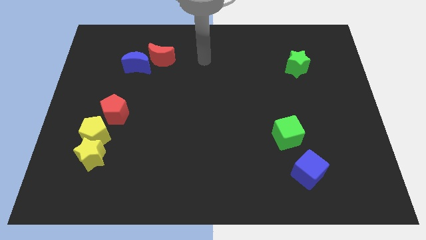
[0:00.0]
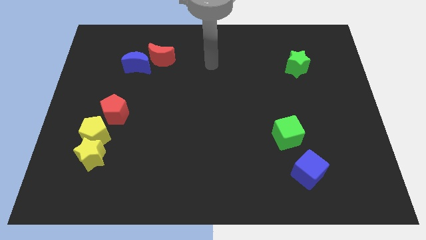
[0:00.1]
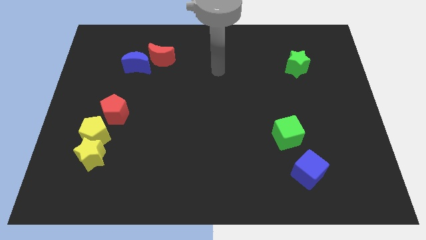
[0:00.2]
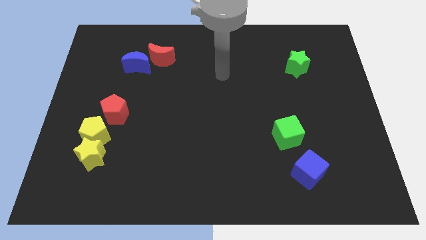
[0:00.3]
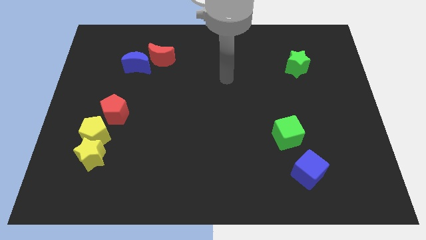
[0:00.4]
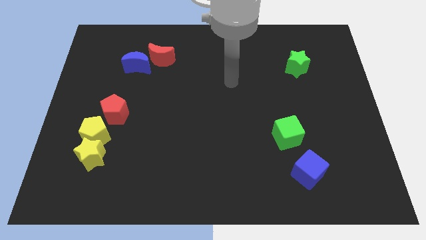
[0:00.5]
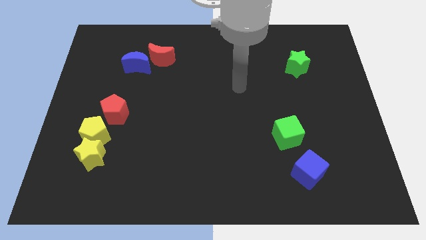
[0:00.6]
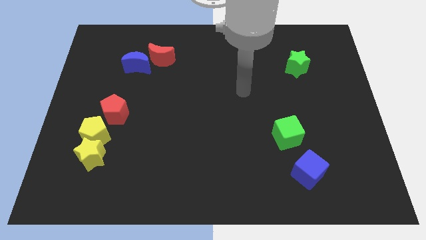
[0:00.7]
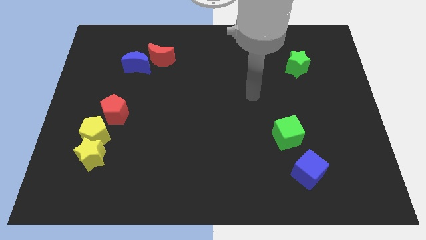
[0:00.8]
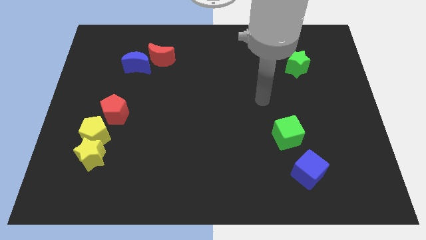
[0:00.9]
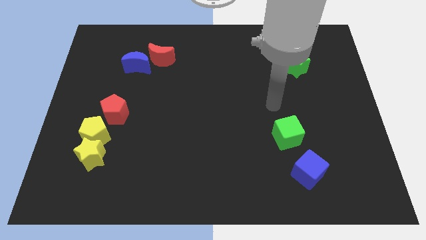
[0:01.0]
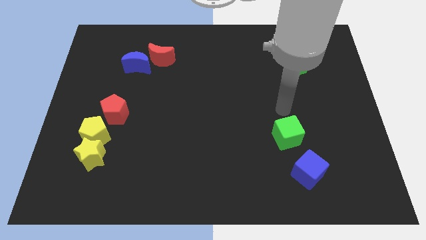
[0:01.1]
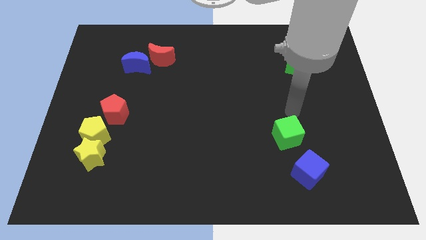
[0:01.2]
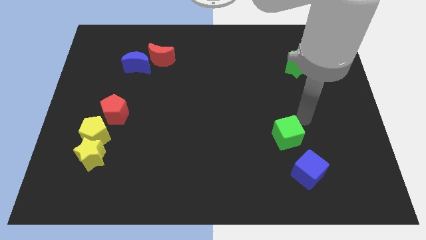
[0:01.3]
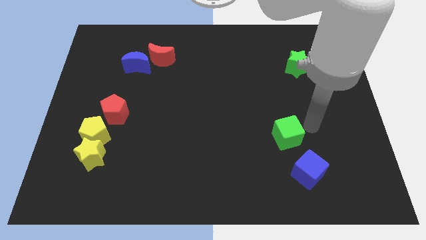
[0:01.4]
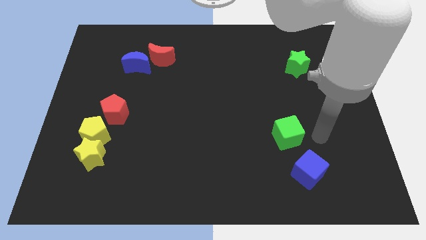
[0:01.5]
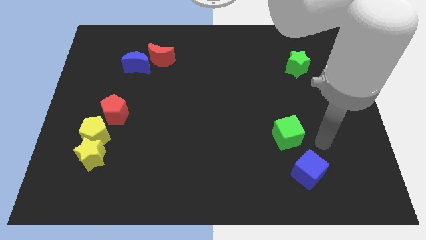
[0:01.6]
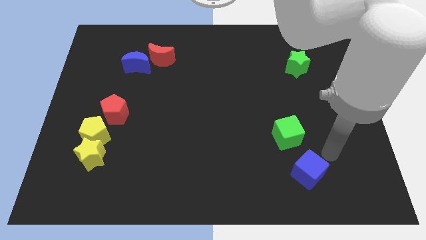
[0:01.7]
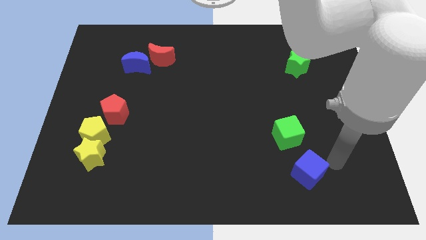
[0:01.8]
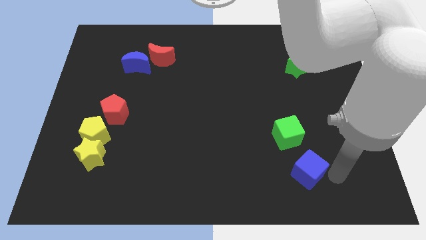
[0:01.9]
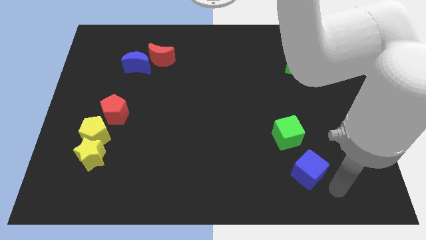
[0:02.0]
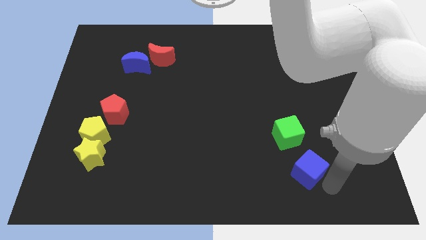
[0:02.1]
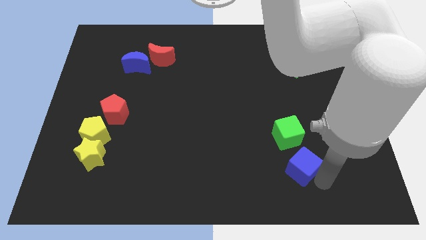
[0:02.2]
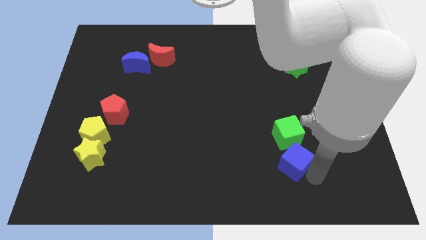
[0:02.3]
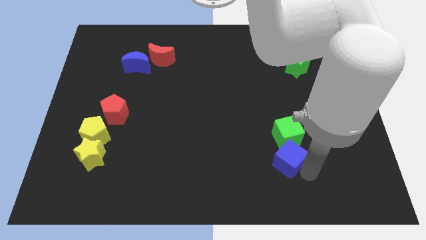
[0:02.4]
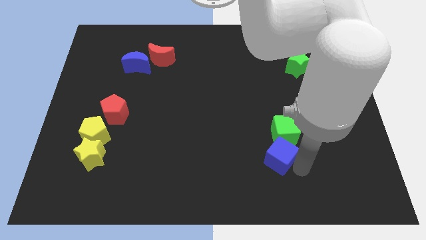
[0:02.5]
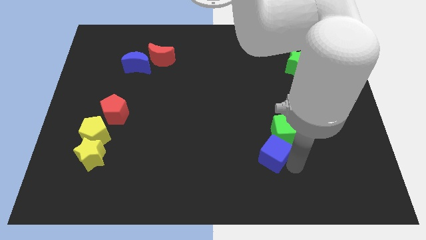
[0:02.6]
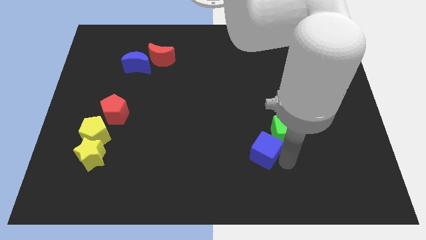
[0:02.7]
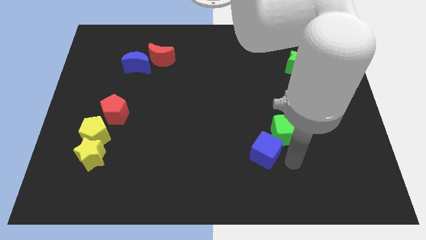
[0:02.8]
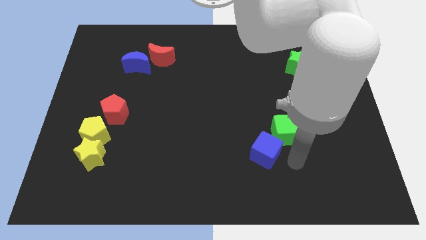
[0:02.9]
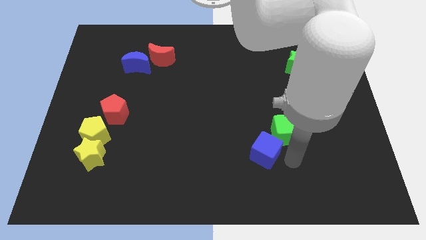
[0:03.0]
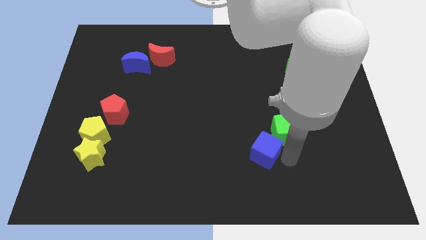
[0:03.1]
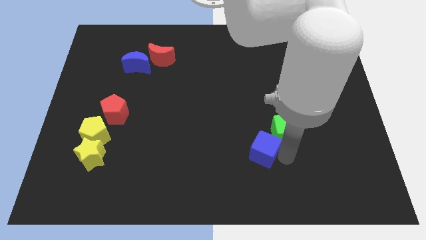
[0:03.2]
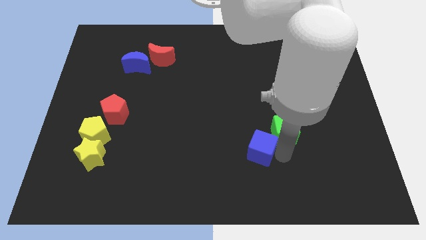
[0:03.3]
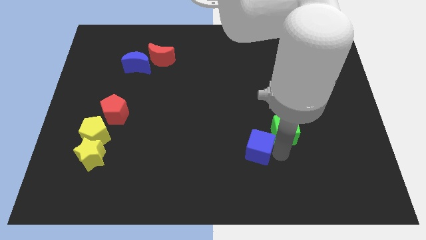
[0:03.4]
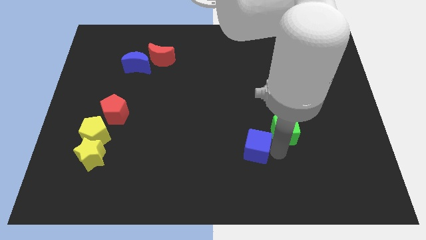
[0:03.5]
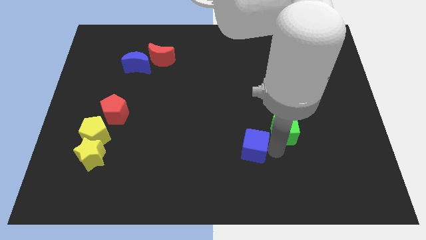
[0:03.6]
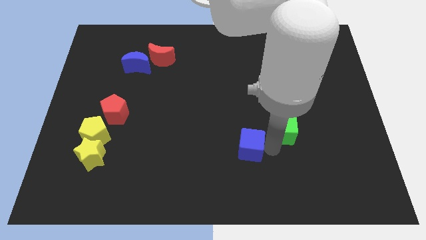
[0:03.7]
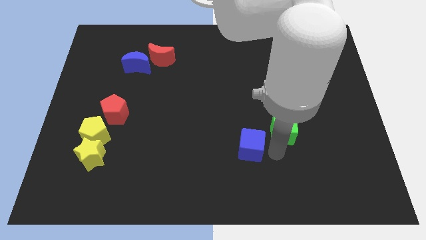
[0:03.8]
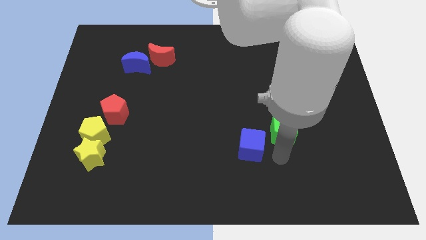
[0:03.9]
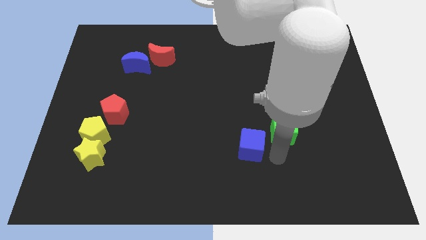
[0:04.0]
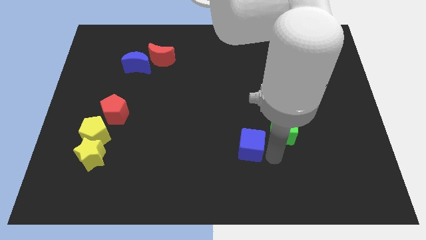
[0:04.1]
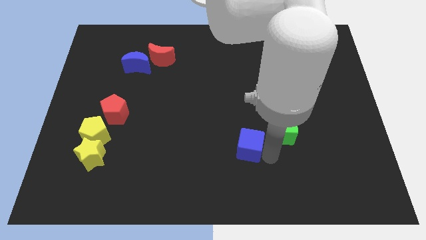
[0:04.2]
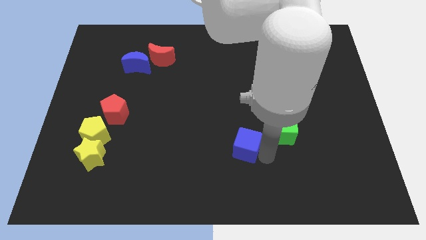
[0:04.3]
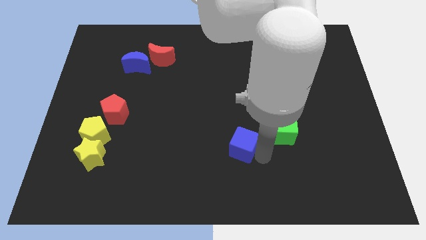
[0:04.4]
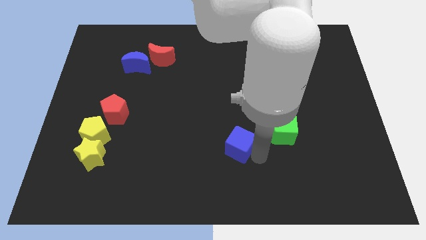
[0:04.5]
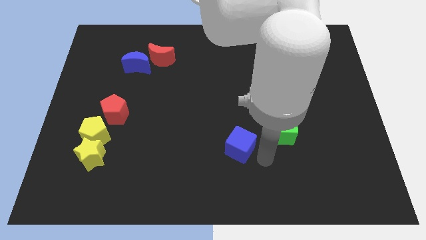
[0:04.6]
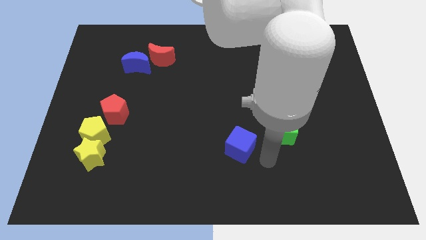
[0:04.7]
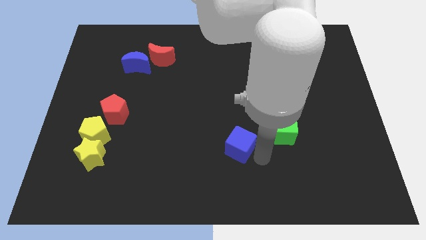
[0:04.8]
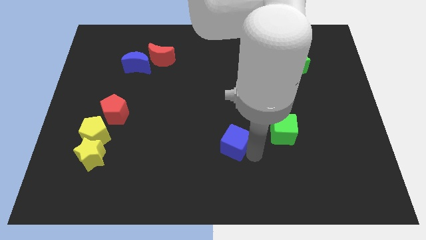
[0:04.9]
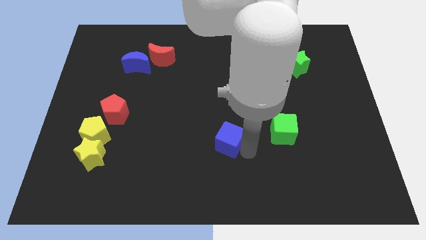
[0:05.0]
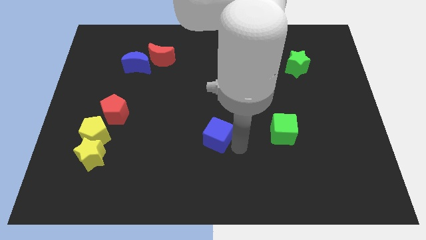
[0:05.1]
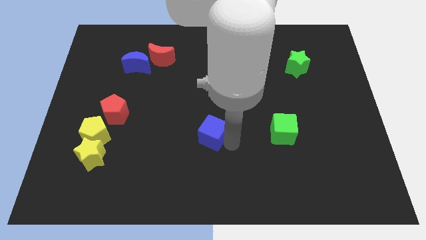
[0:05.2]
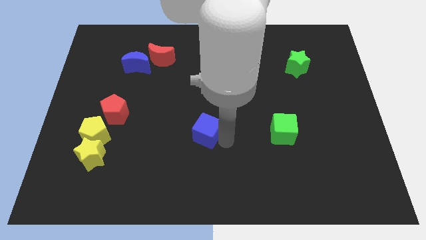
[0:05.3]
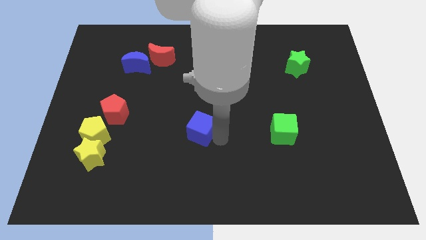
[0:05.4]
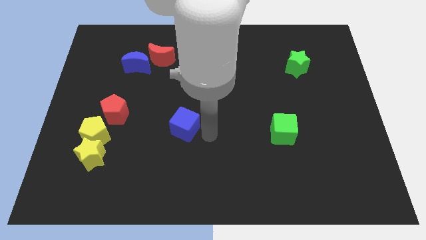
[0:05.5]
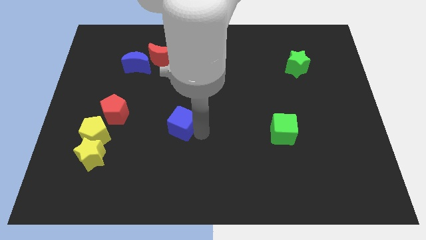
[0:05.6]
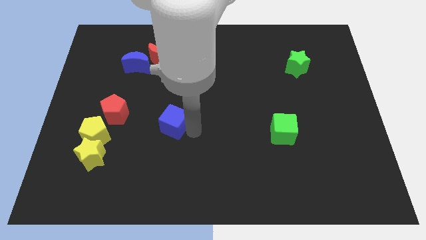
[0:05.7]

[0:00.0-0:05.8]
push the blue cube to the right side of the red pentagon
